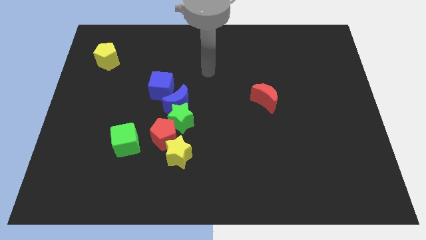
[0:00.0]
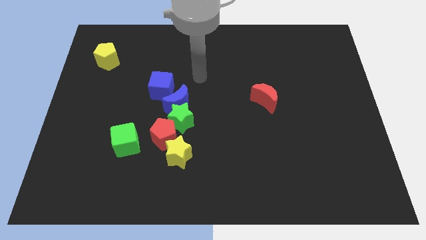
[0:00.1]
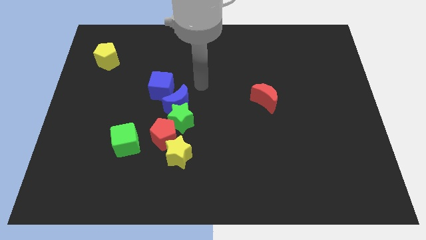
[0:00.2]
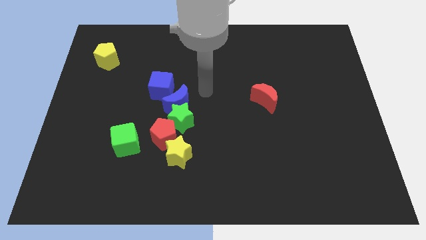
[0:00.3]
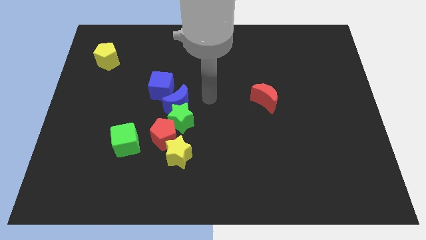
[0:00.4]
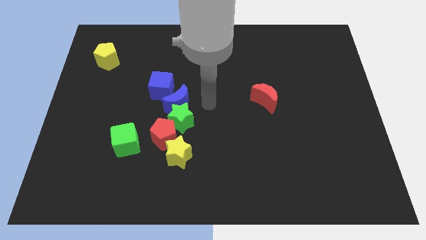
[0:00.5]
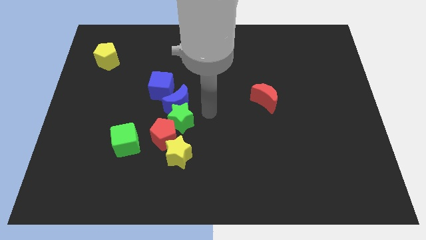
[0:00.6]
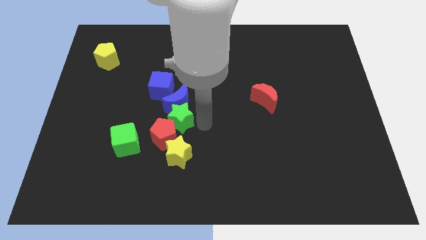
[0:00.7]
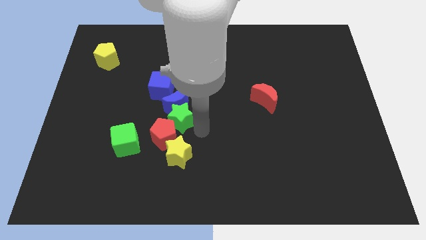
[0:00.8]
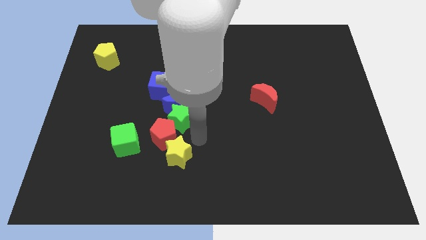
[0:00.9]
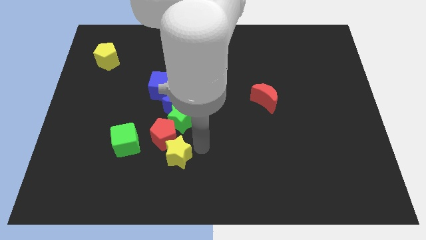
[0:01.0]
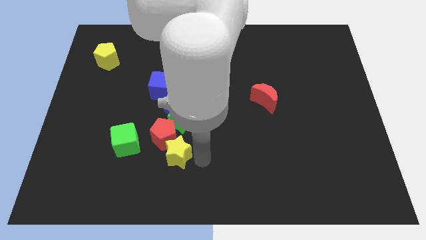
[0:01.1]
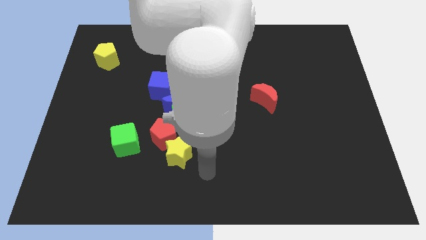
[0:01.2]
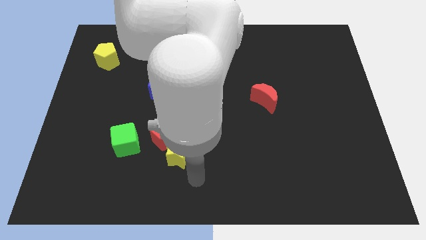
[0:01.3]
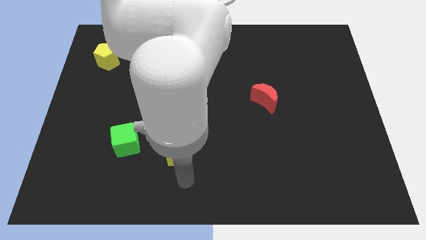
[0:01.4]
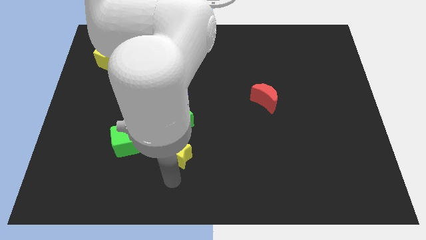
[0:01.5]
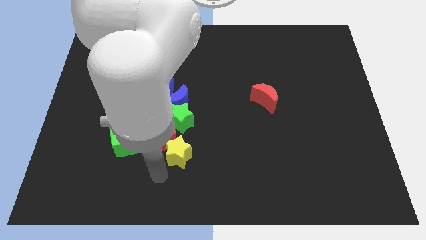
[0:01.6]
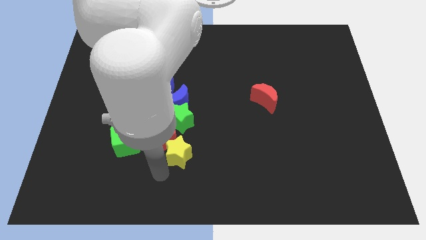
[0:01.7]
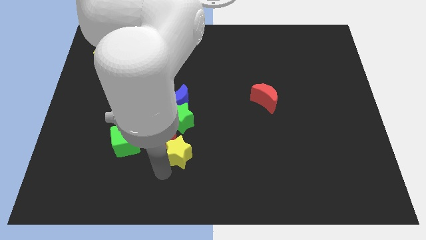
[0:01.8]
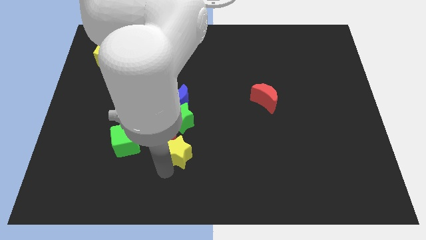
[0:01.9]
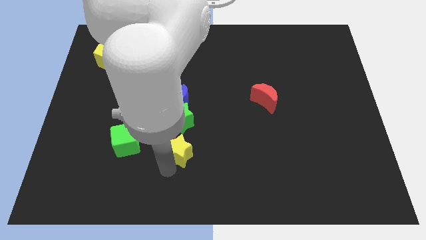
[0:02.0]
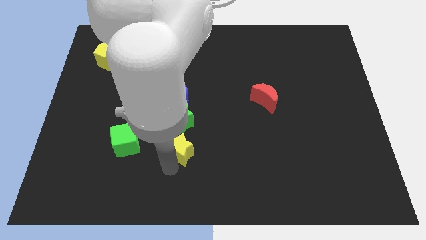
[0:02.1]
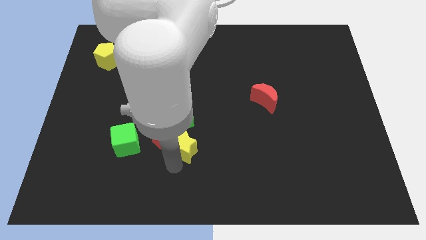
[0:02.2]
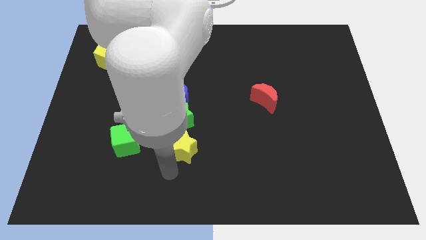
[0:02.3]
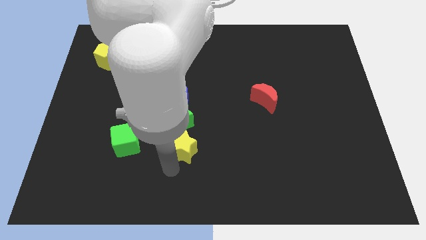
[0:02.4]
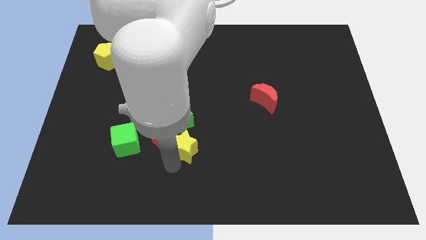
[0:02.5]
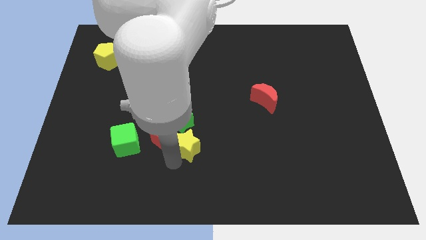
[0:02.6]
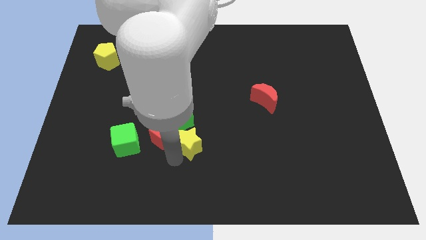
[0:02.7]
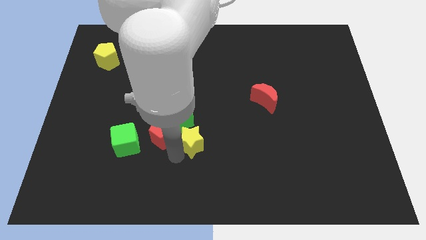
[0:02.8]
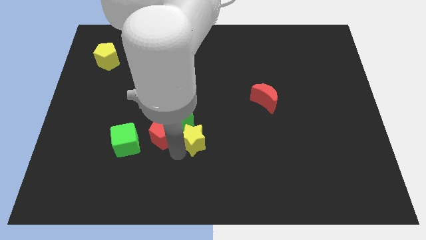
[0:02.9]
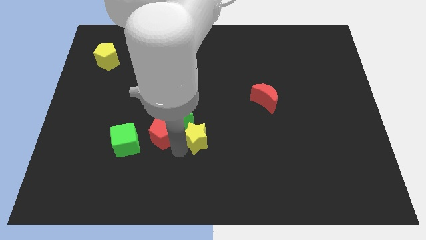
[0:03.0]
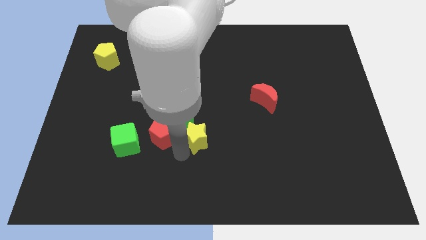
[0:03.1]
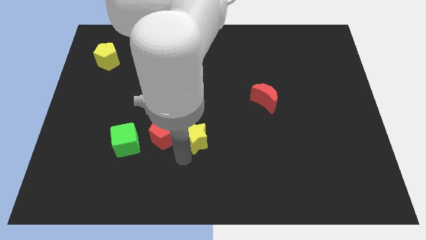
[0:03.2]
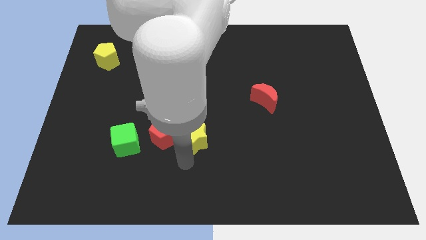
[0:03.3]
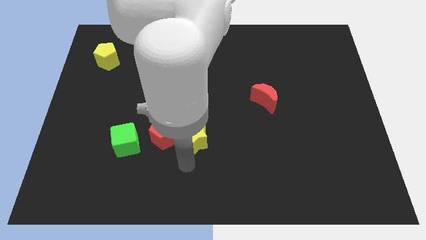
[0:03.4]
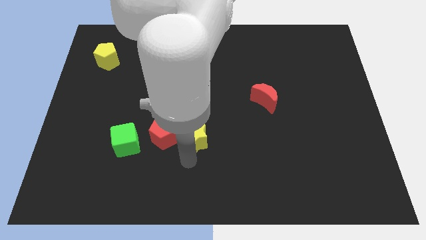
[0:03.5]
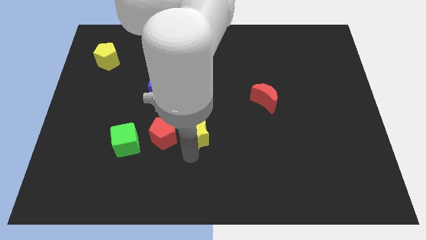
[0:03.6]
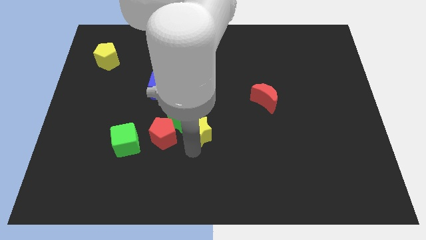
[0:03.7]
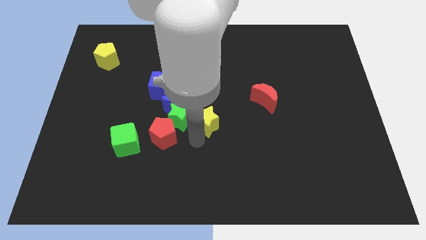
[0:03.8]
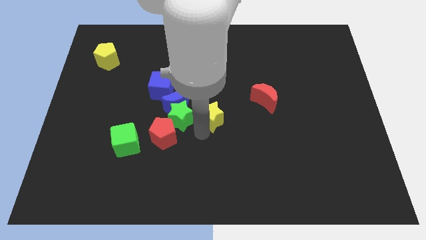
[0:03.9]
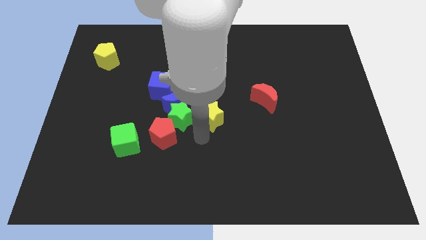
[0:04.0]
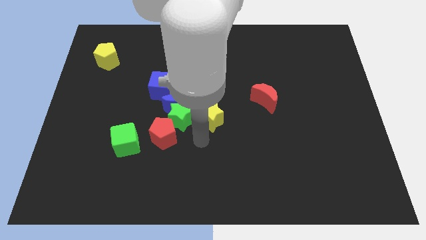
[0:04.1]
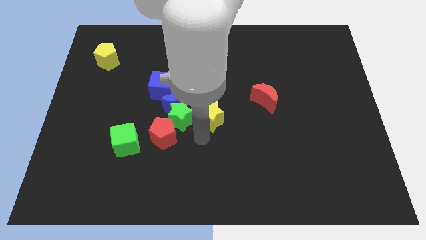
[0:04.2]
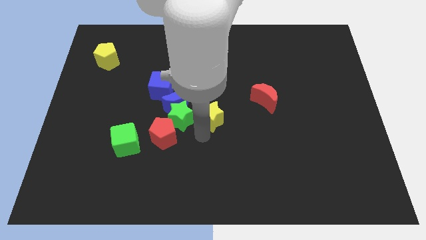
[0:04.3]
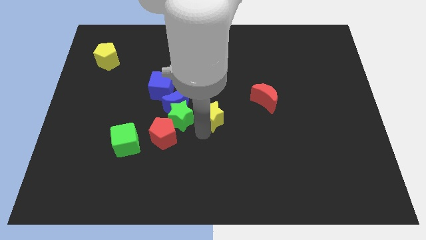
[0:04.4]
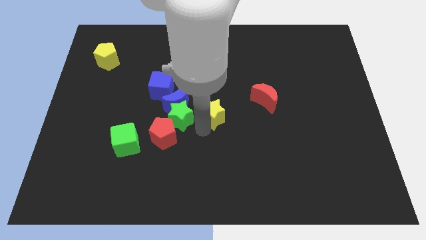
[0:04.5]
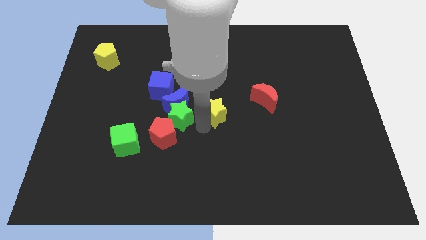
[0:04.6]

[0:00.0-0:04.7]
push the yellow star to the left of the red moon

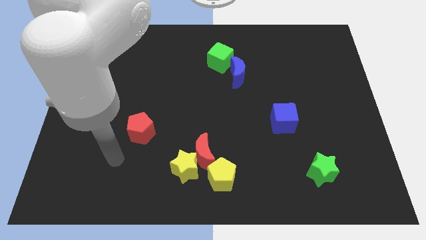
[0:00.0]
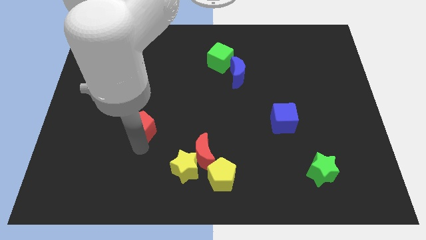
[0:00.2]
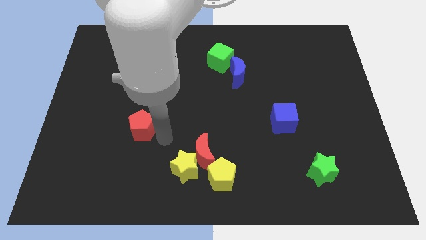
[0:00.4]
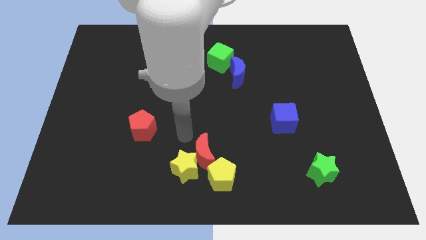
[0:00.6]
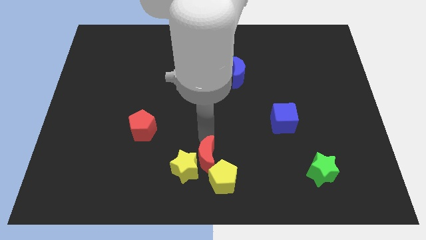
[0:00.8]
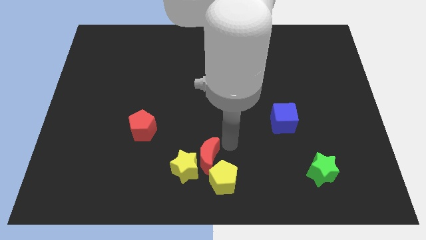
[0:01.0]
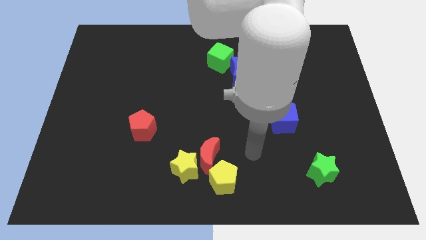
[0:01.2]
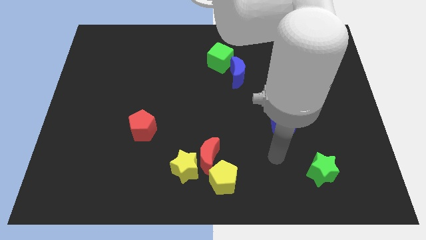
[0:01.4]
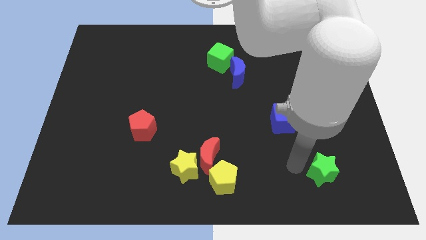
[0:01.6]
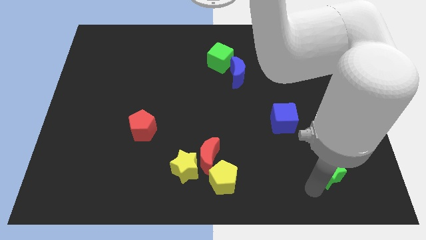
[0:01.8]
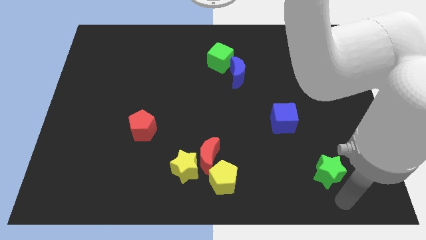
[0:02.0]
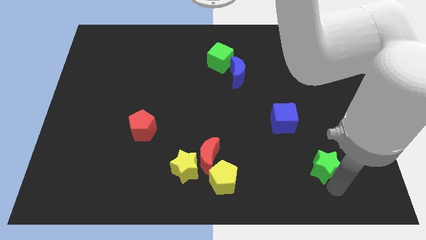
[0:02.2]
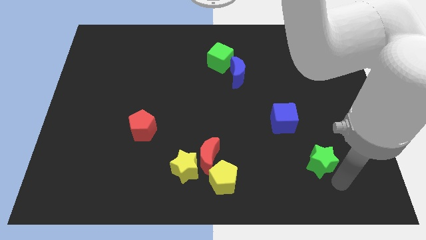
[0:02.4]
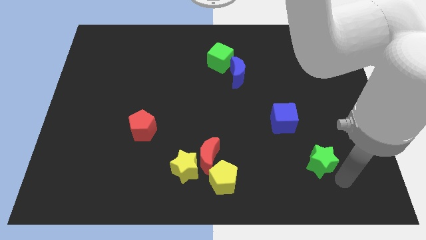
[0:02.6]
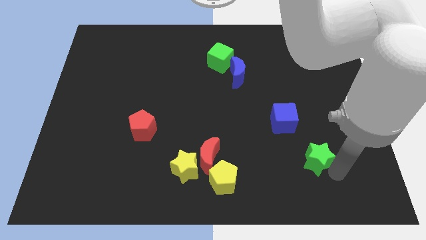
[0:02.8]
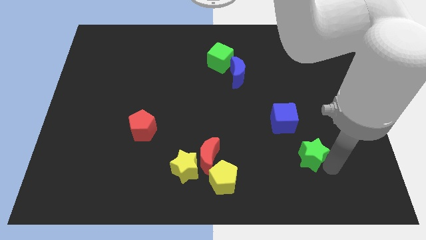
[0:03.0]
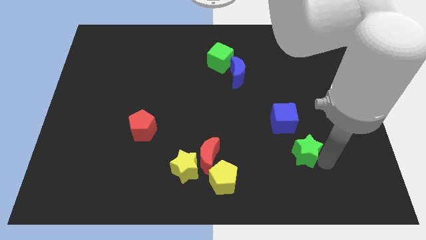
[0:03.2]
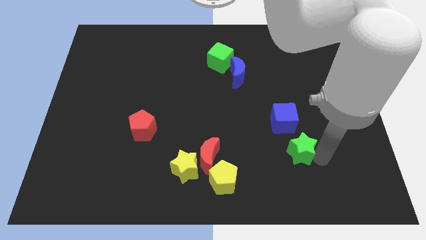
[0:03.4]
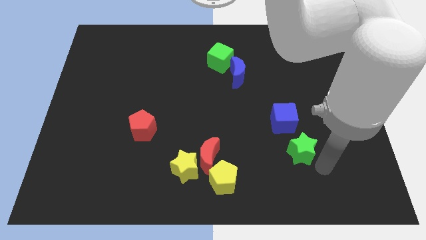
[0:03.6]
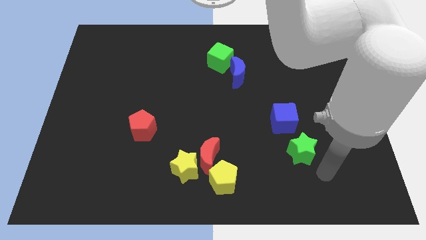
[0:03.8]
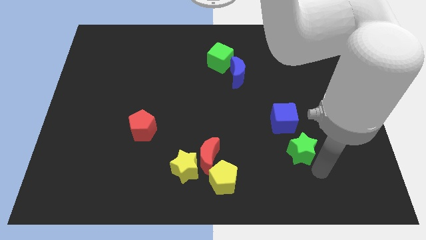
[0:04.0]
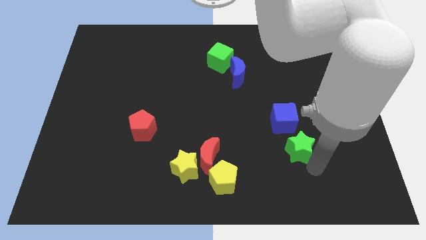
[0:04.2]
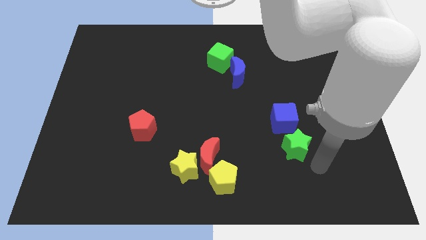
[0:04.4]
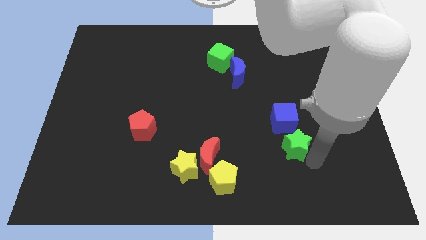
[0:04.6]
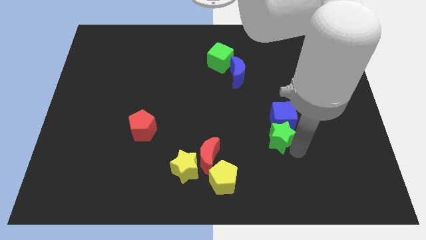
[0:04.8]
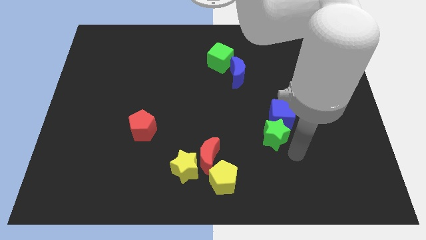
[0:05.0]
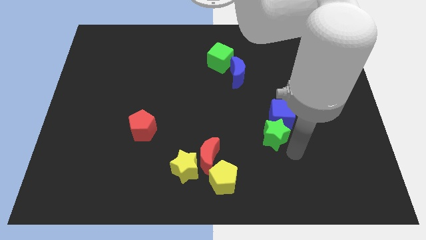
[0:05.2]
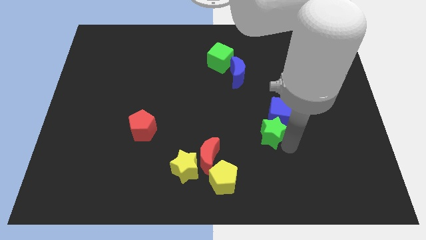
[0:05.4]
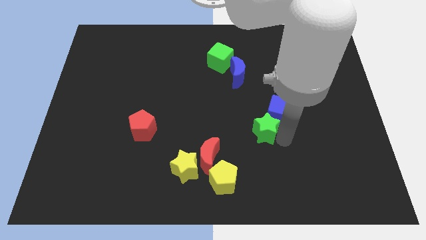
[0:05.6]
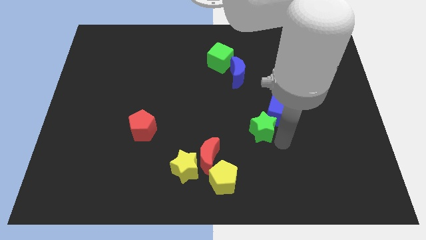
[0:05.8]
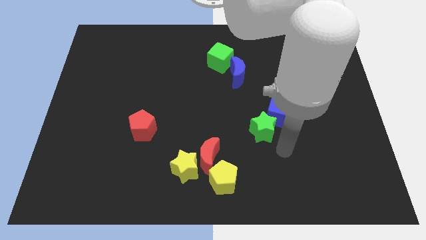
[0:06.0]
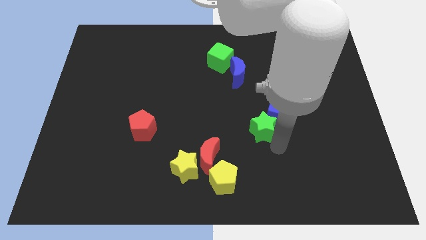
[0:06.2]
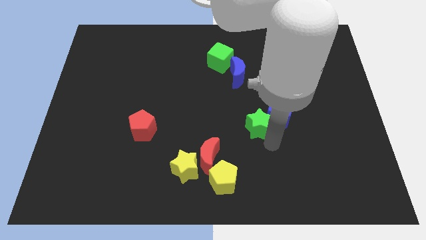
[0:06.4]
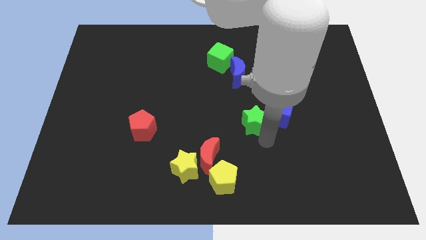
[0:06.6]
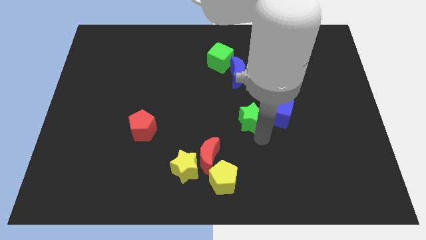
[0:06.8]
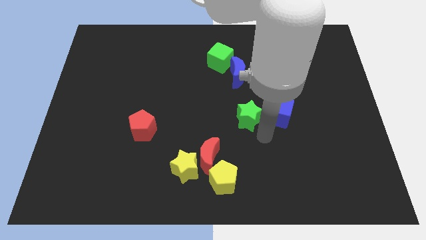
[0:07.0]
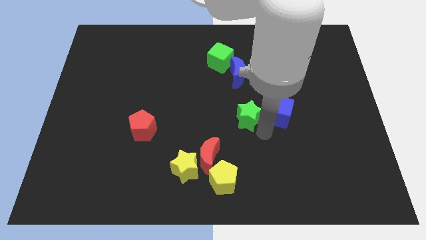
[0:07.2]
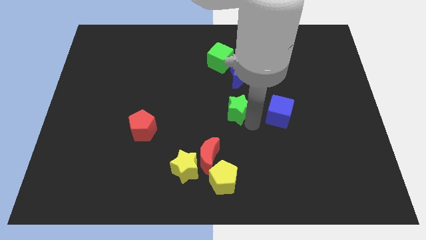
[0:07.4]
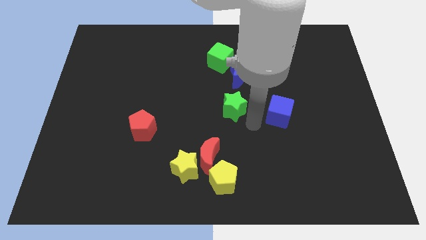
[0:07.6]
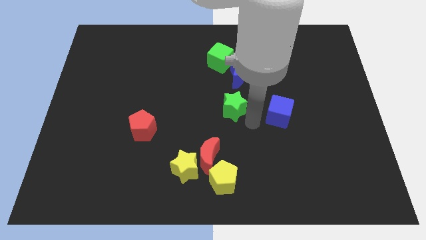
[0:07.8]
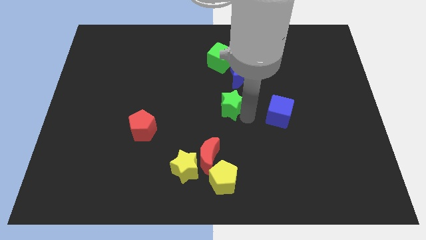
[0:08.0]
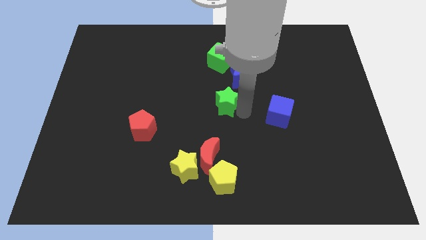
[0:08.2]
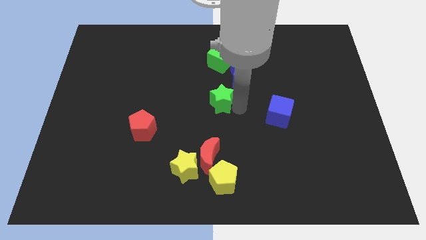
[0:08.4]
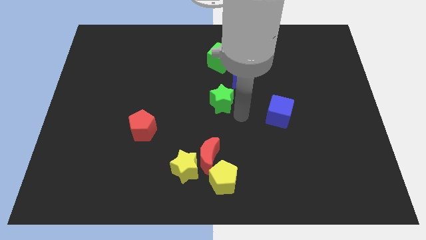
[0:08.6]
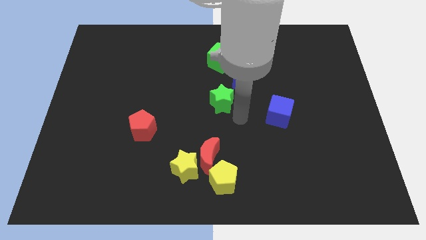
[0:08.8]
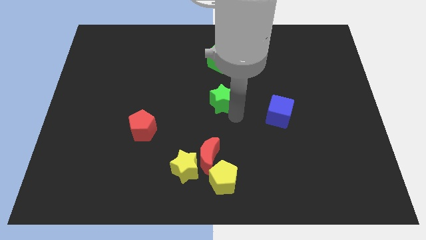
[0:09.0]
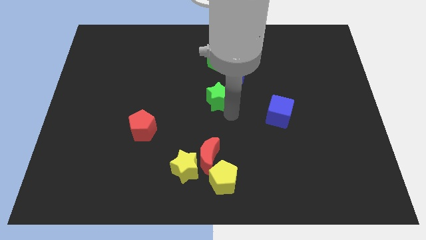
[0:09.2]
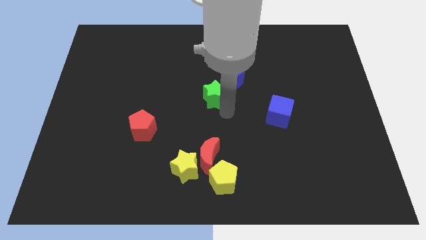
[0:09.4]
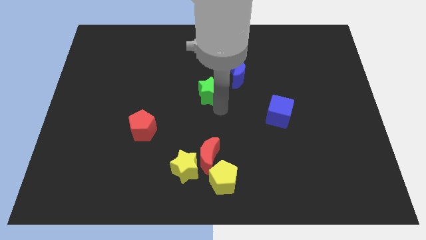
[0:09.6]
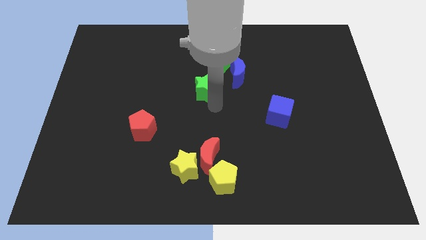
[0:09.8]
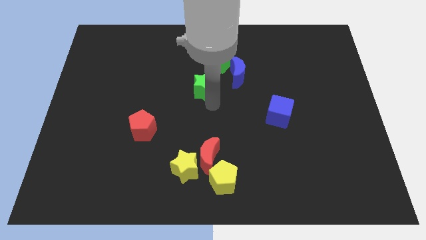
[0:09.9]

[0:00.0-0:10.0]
push the green star to the bottom left side of the green cube
